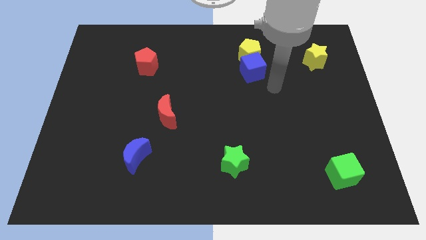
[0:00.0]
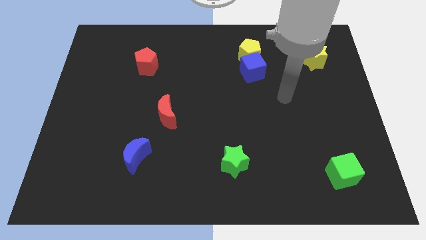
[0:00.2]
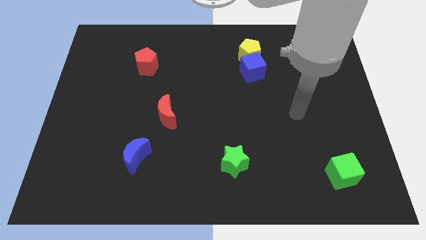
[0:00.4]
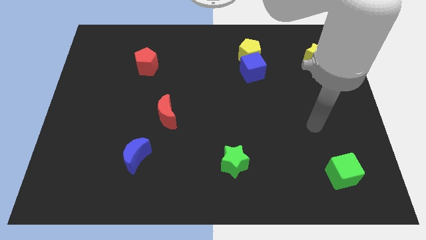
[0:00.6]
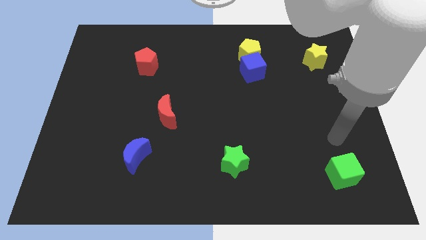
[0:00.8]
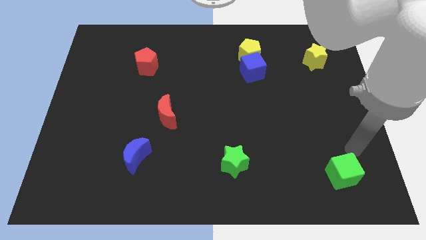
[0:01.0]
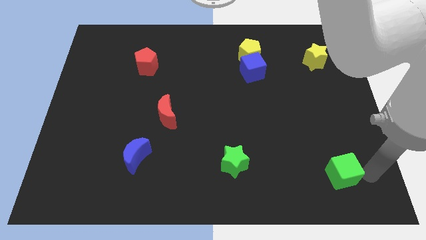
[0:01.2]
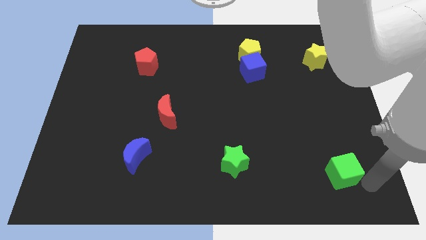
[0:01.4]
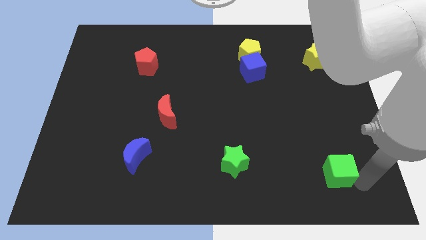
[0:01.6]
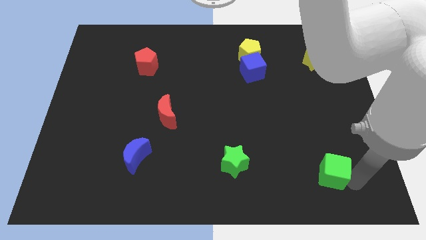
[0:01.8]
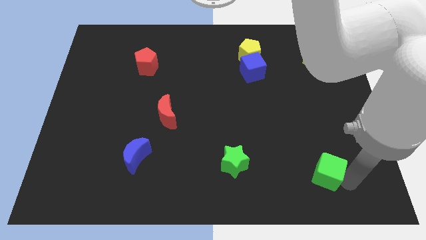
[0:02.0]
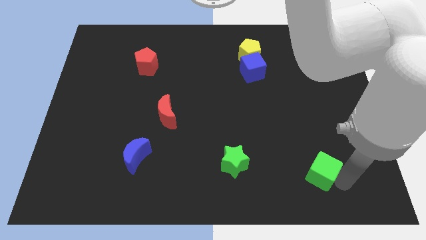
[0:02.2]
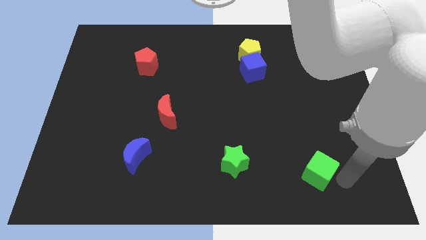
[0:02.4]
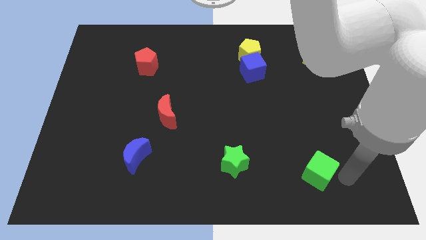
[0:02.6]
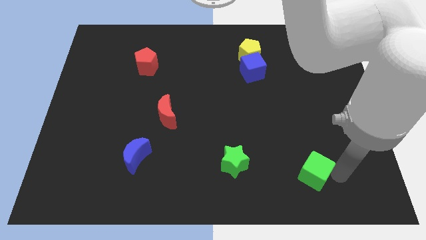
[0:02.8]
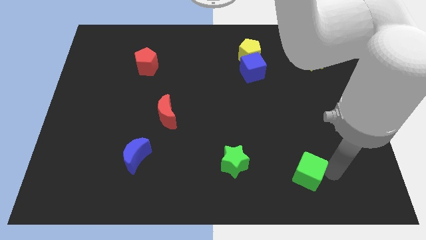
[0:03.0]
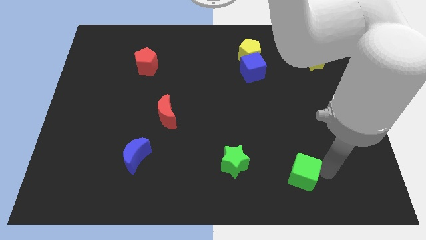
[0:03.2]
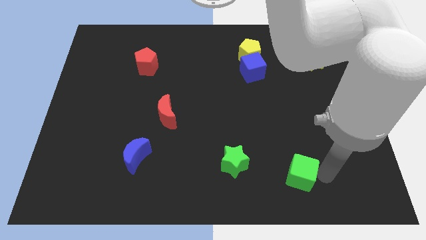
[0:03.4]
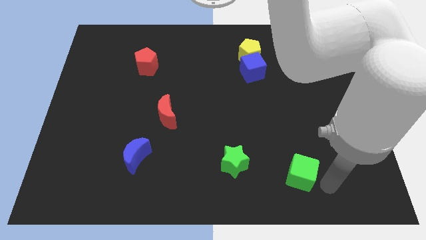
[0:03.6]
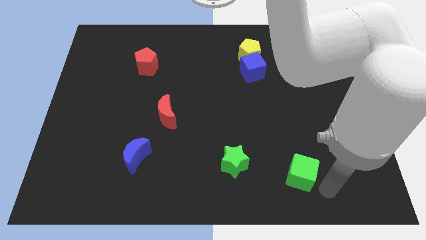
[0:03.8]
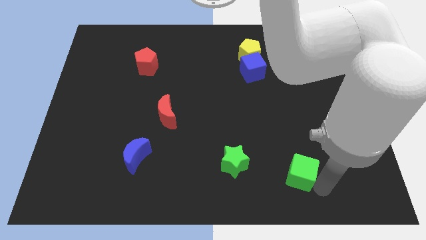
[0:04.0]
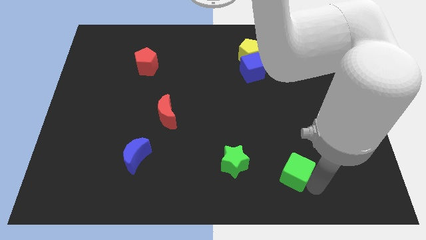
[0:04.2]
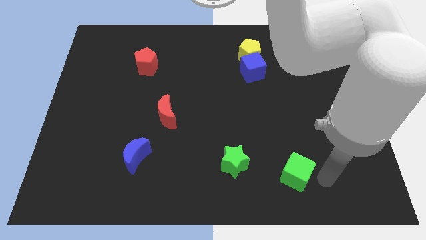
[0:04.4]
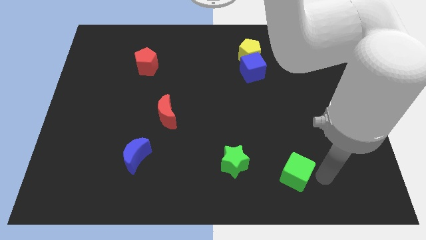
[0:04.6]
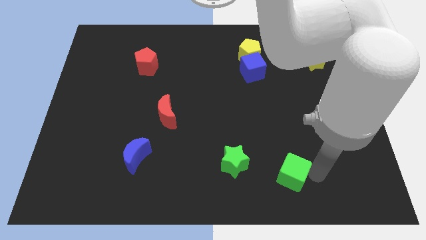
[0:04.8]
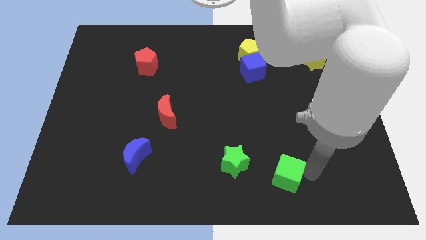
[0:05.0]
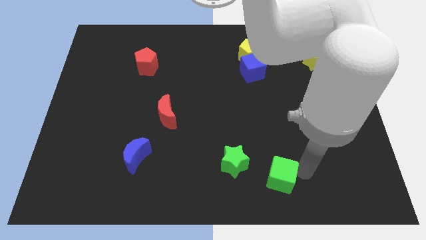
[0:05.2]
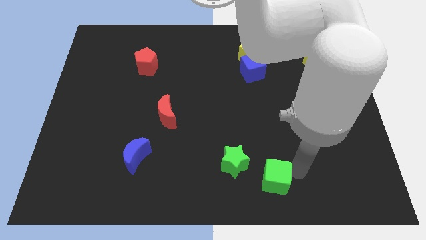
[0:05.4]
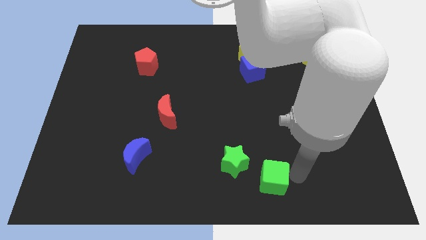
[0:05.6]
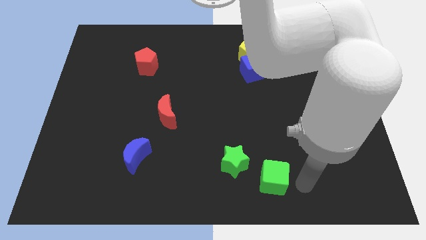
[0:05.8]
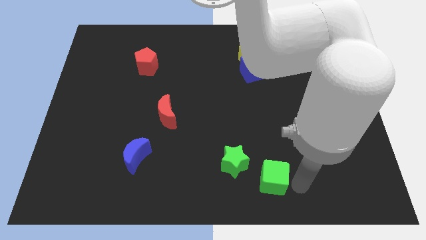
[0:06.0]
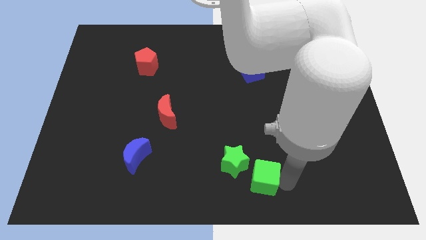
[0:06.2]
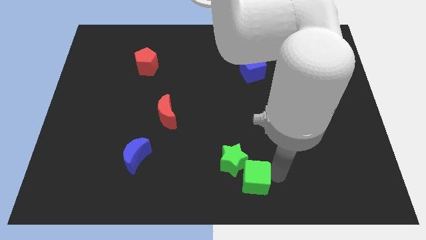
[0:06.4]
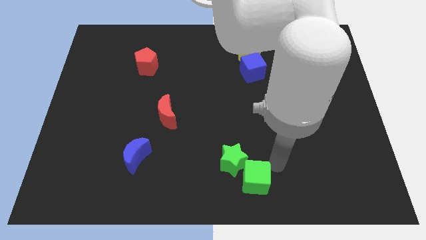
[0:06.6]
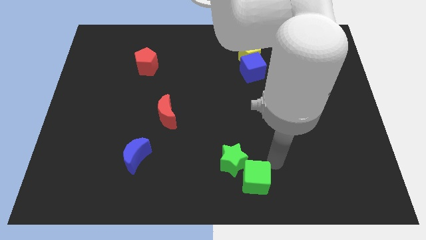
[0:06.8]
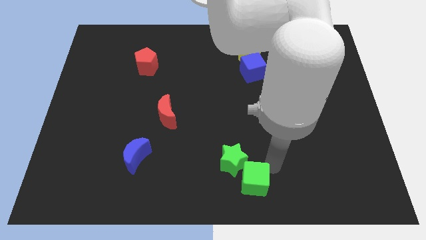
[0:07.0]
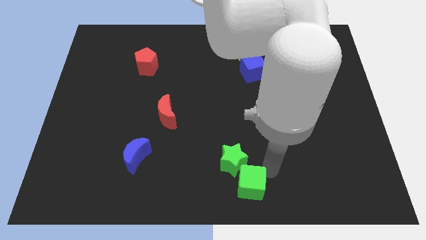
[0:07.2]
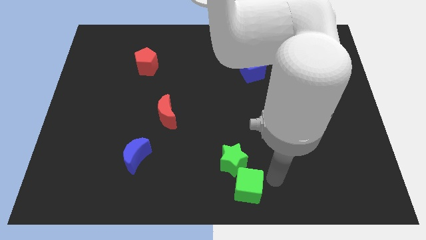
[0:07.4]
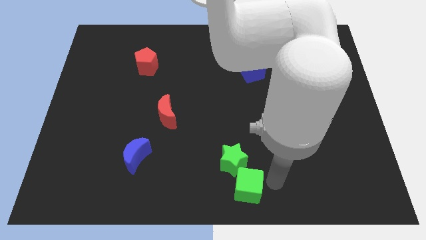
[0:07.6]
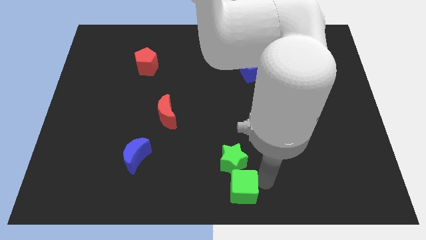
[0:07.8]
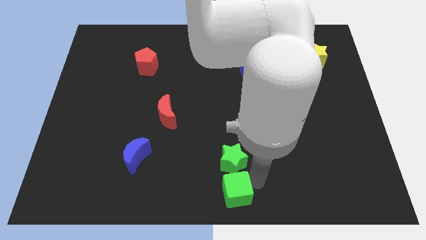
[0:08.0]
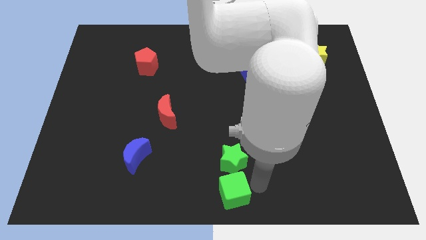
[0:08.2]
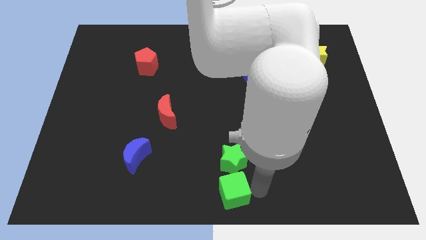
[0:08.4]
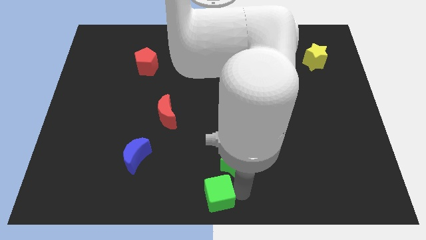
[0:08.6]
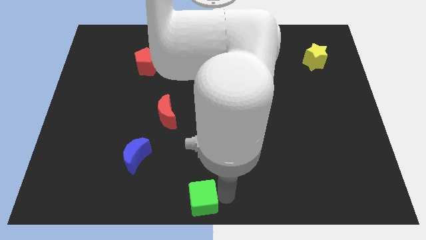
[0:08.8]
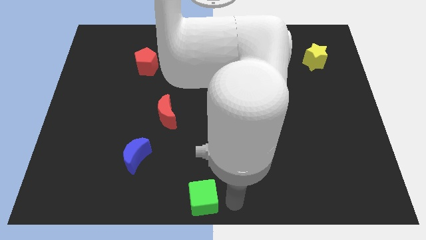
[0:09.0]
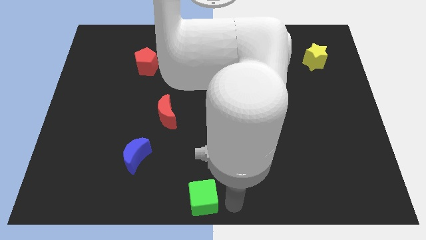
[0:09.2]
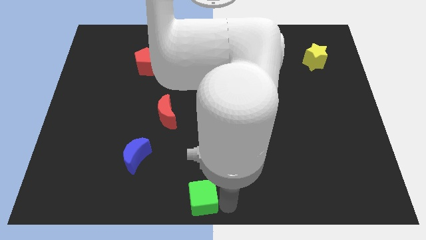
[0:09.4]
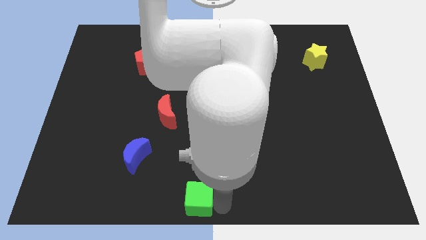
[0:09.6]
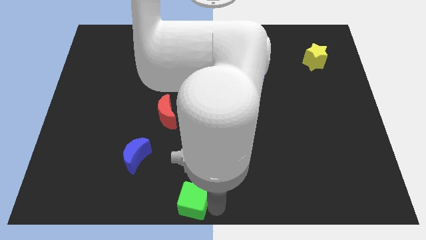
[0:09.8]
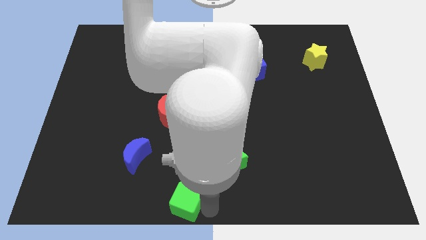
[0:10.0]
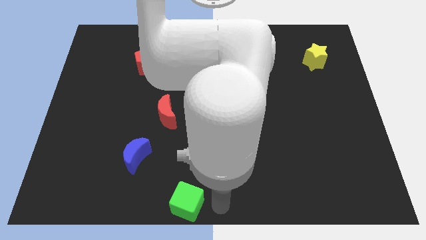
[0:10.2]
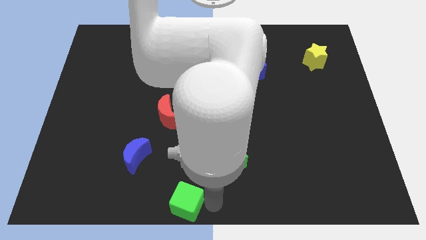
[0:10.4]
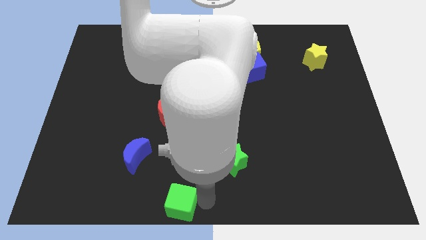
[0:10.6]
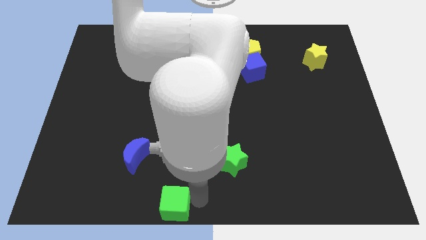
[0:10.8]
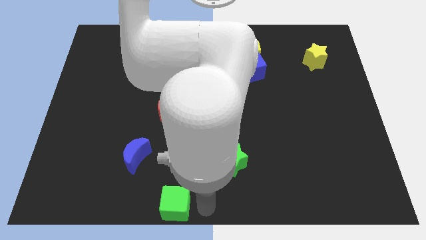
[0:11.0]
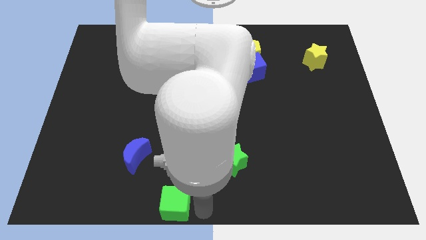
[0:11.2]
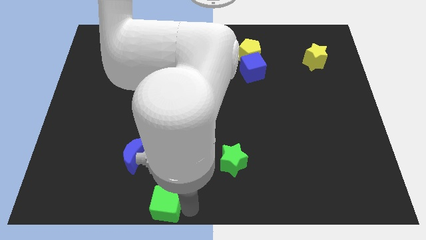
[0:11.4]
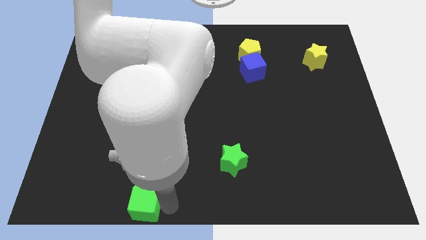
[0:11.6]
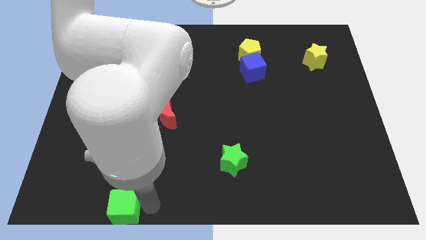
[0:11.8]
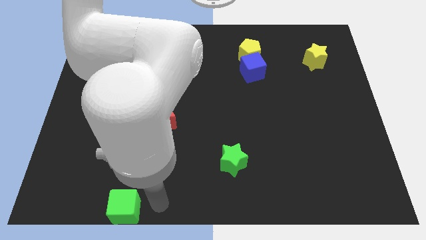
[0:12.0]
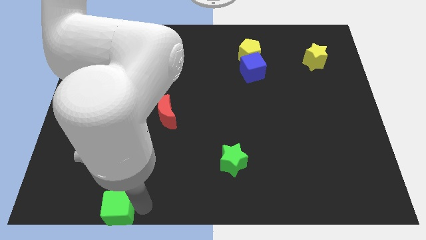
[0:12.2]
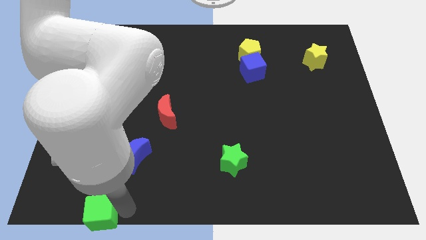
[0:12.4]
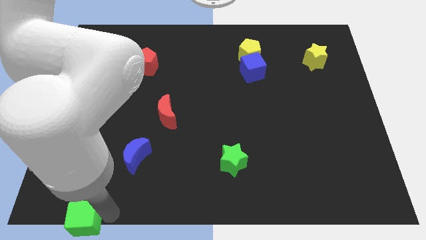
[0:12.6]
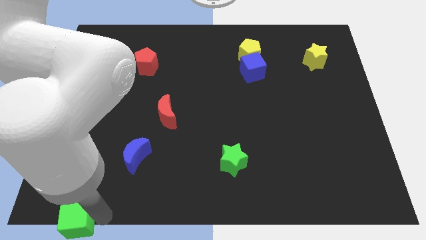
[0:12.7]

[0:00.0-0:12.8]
push the green cube to the bottom left corner

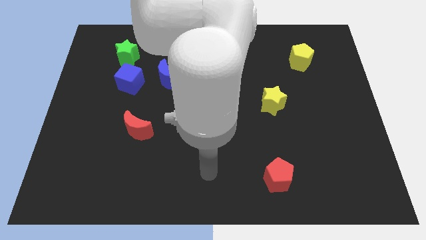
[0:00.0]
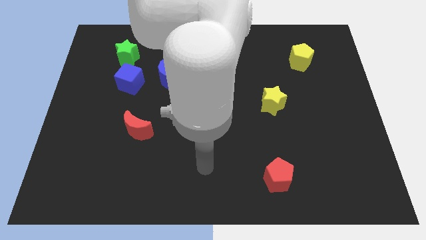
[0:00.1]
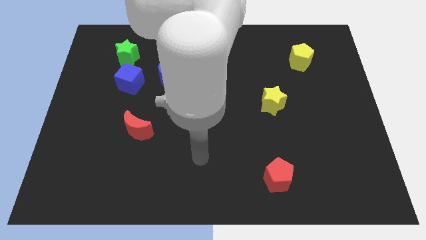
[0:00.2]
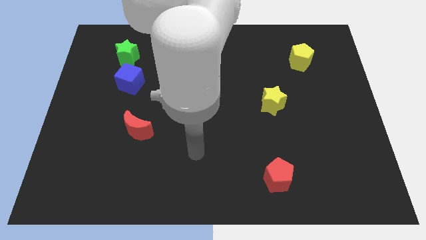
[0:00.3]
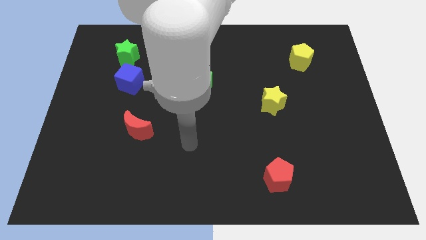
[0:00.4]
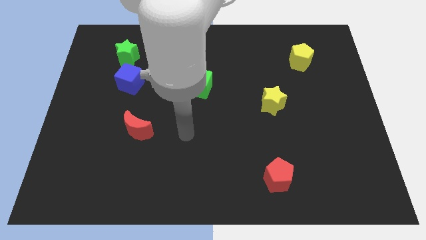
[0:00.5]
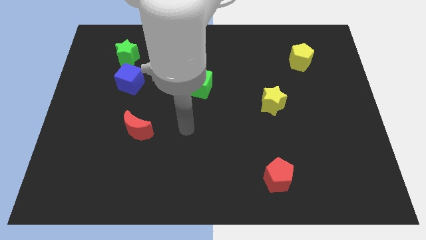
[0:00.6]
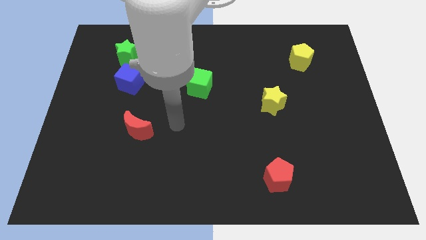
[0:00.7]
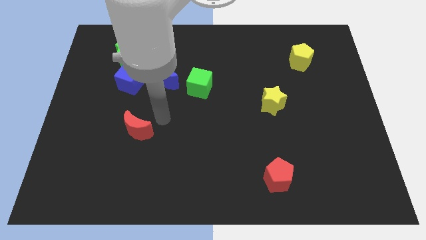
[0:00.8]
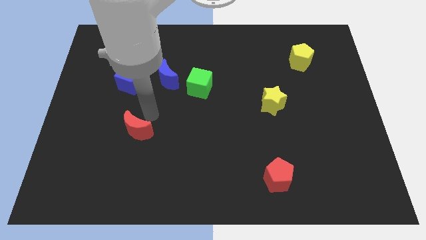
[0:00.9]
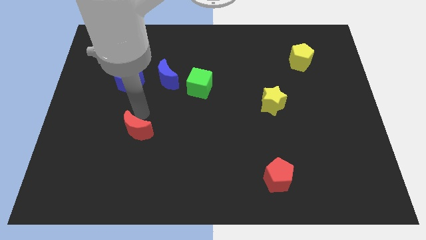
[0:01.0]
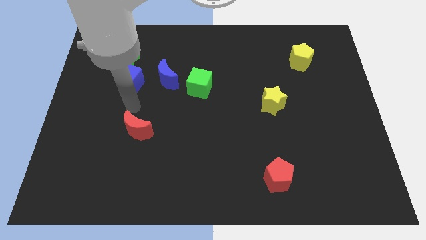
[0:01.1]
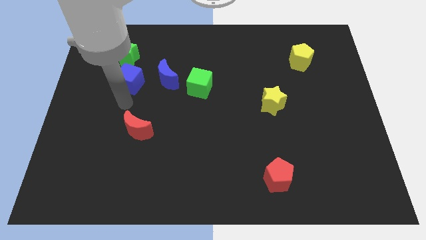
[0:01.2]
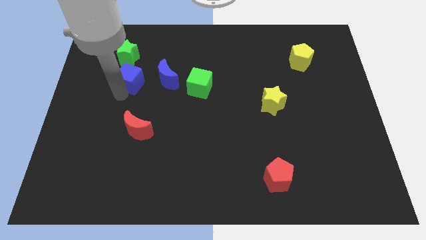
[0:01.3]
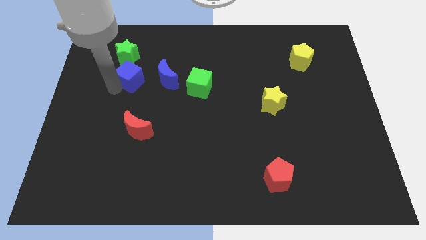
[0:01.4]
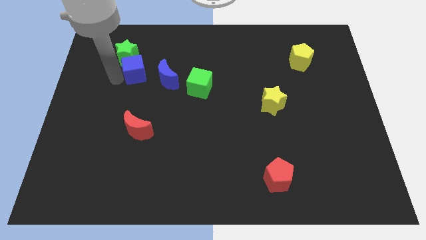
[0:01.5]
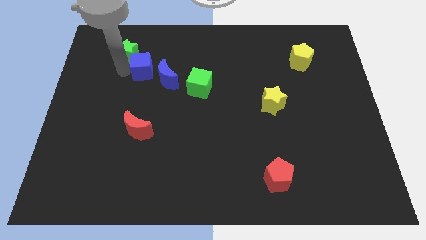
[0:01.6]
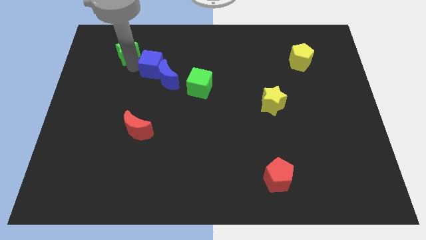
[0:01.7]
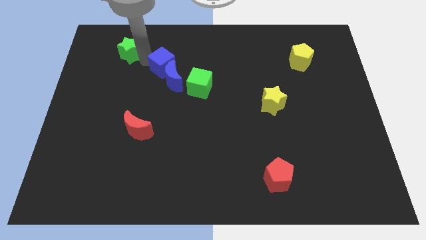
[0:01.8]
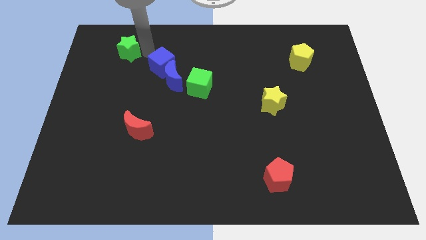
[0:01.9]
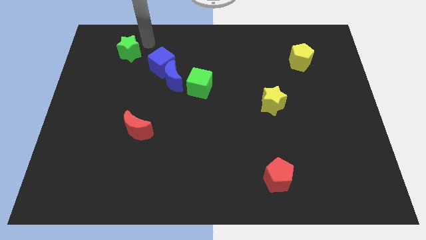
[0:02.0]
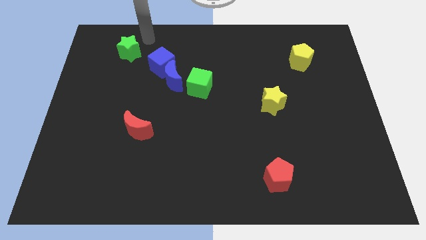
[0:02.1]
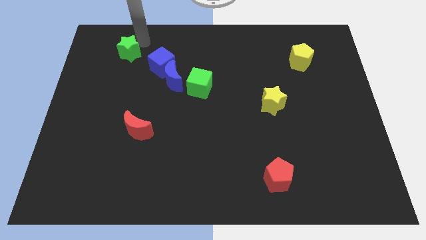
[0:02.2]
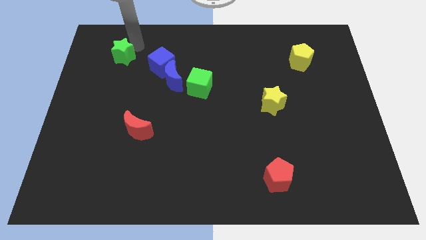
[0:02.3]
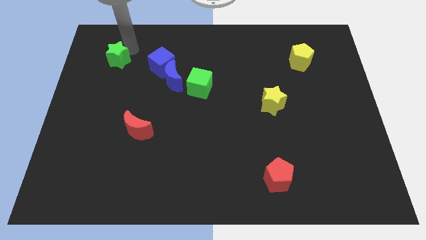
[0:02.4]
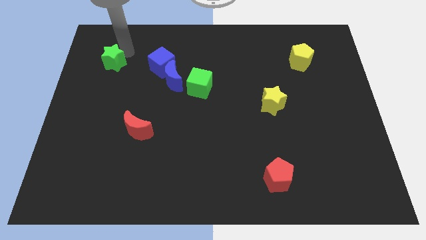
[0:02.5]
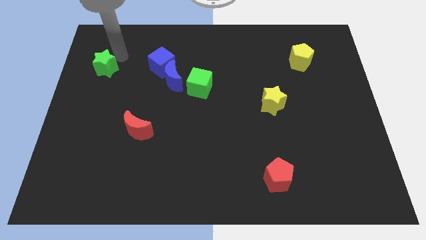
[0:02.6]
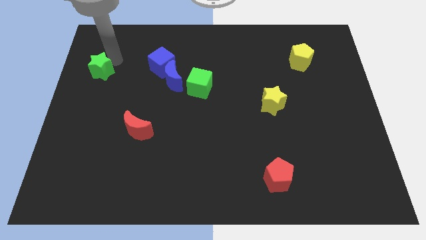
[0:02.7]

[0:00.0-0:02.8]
put the green star to the left side
